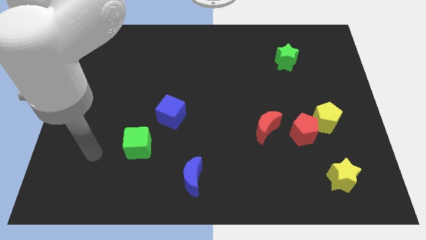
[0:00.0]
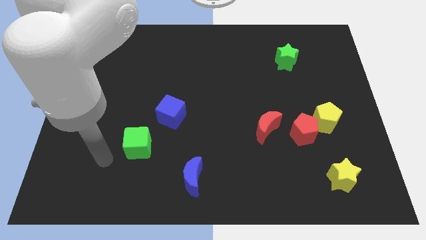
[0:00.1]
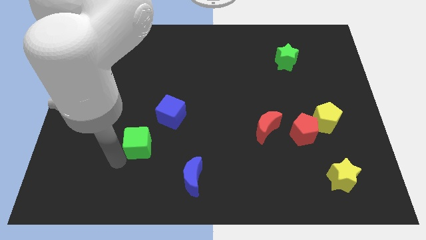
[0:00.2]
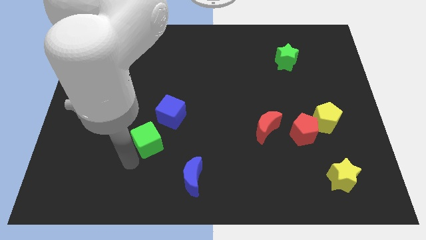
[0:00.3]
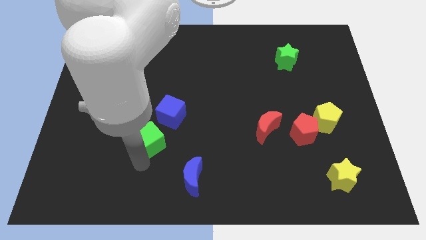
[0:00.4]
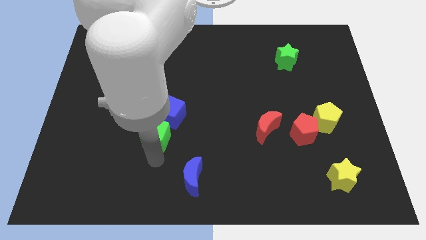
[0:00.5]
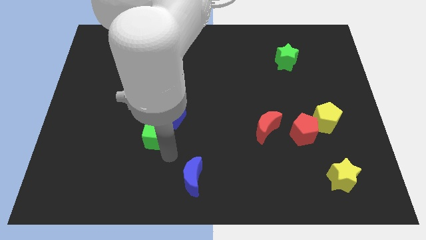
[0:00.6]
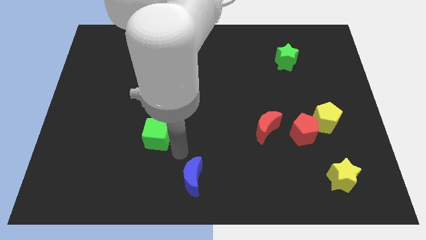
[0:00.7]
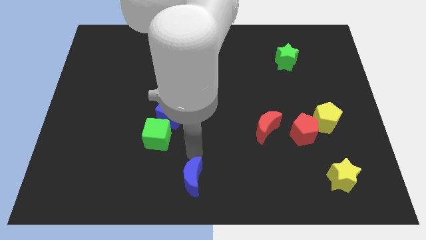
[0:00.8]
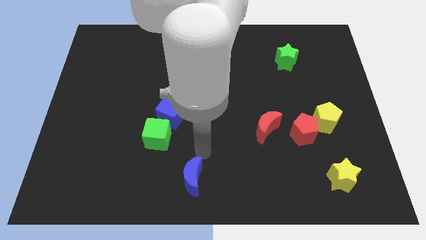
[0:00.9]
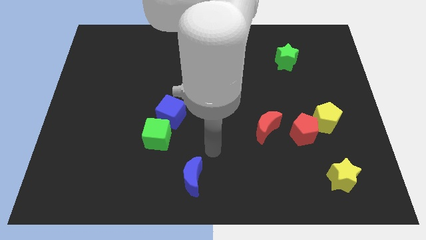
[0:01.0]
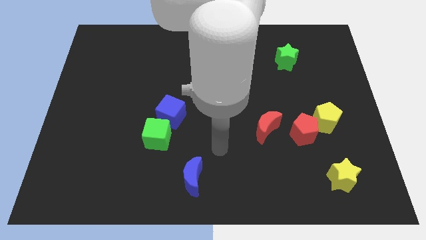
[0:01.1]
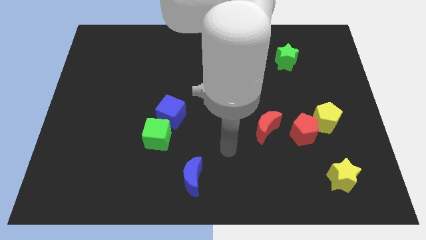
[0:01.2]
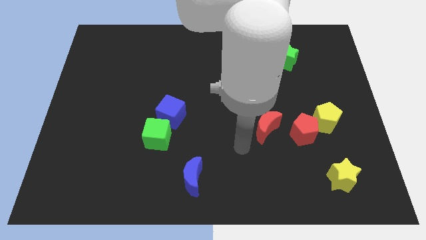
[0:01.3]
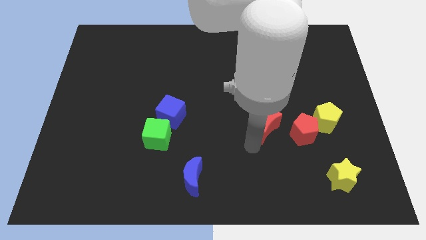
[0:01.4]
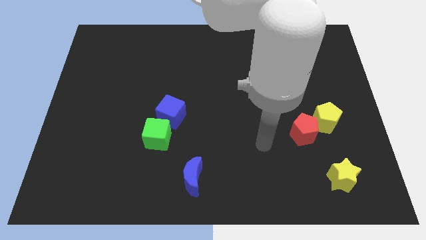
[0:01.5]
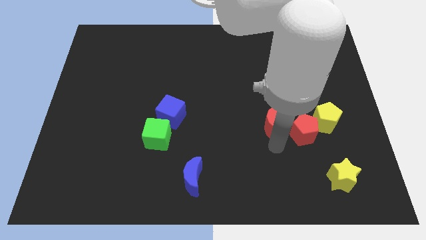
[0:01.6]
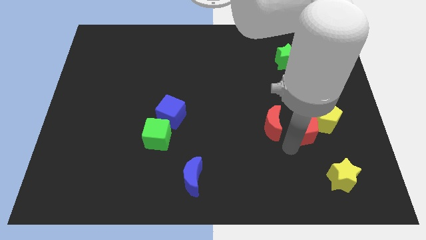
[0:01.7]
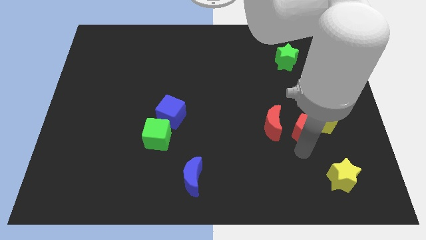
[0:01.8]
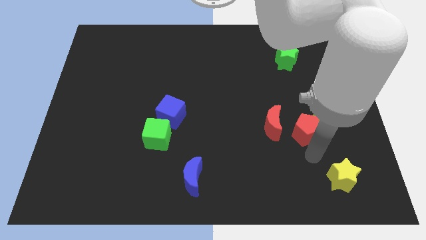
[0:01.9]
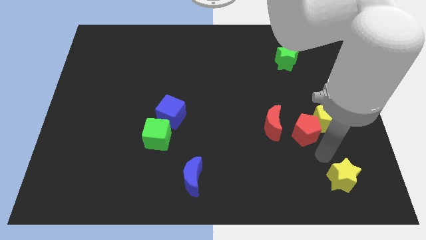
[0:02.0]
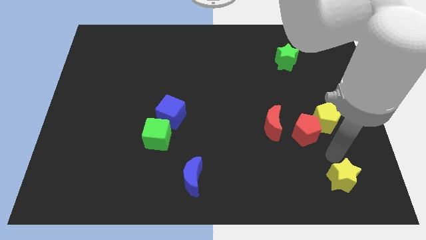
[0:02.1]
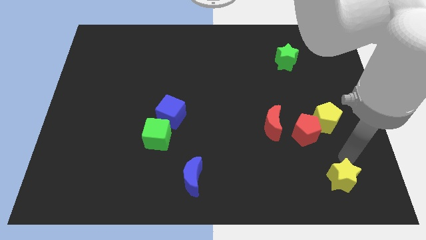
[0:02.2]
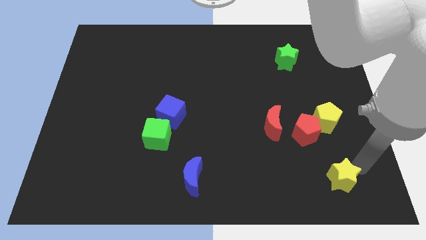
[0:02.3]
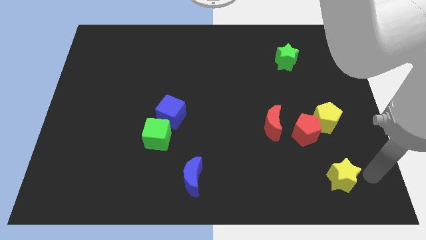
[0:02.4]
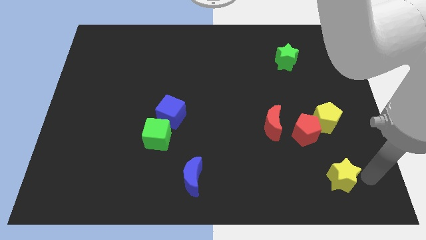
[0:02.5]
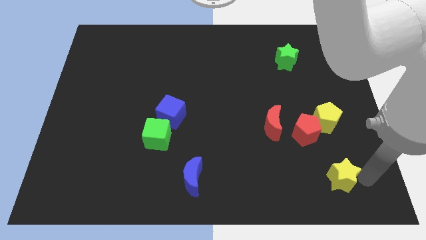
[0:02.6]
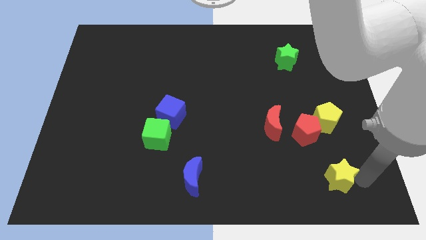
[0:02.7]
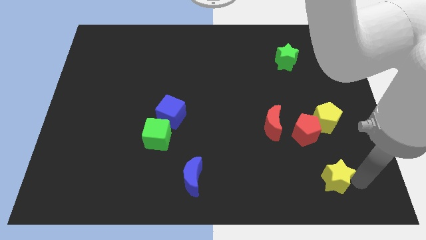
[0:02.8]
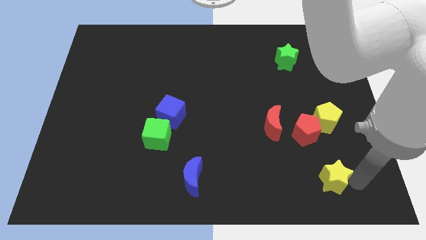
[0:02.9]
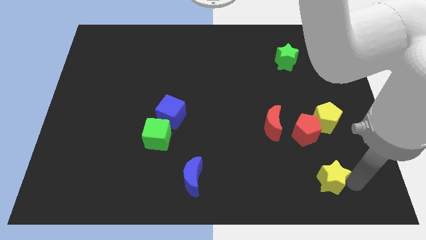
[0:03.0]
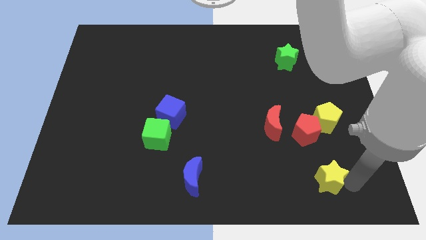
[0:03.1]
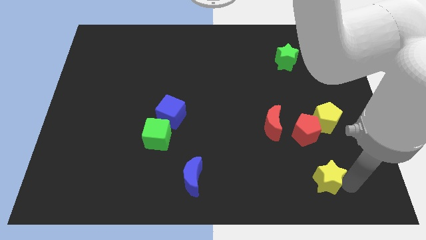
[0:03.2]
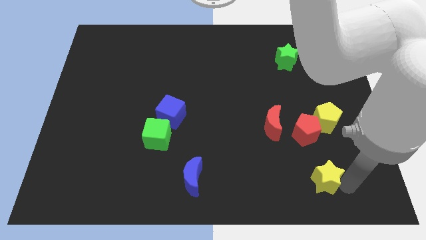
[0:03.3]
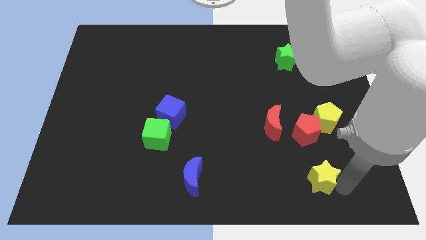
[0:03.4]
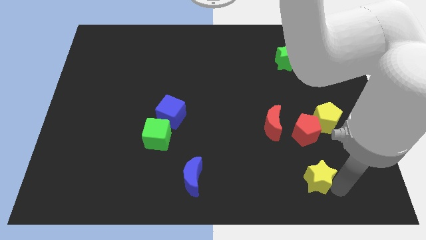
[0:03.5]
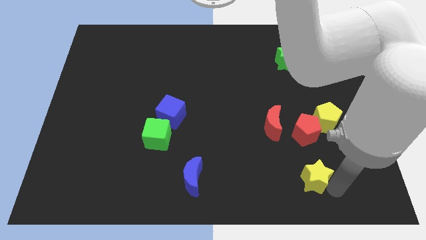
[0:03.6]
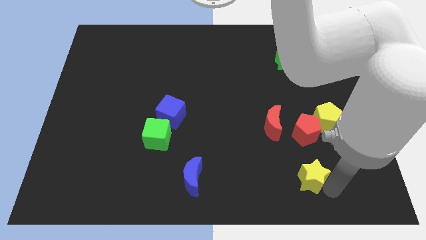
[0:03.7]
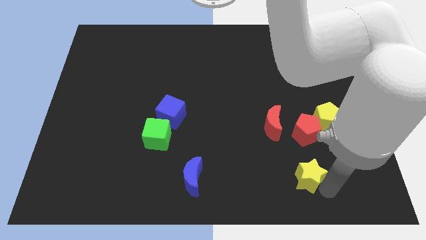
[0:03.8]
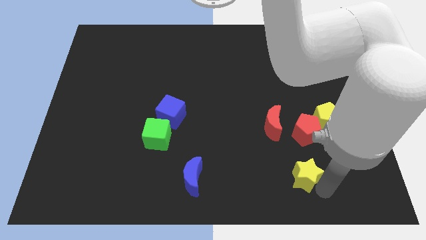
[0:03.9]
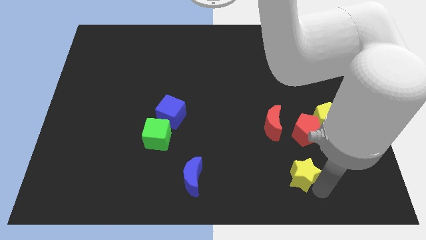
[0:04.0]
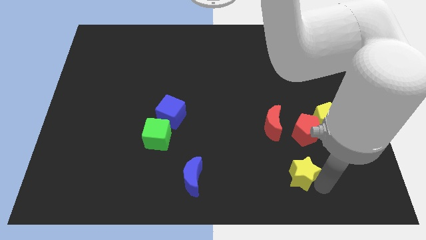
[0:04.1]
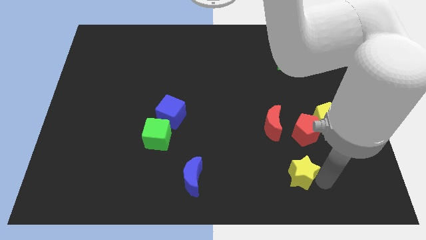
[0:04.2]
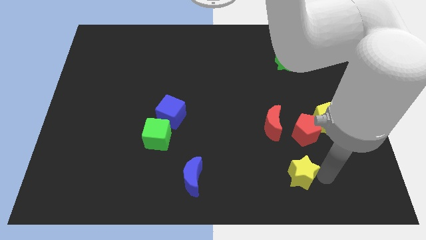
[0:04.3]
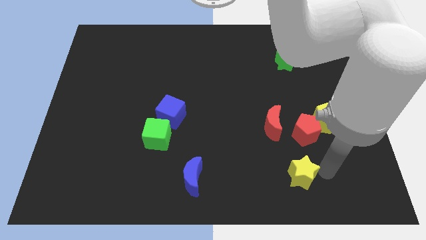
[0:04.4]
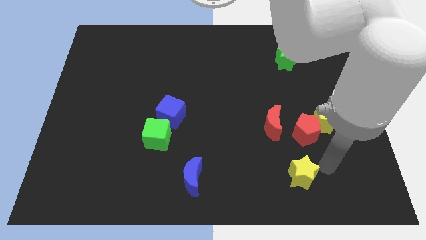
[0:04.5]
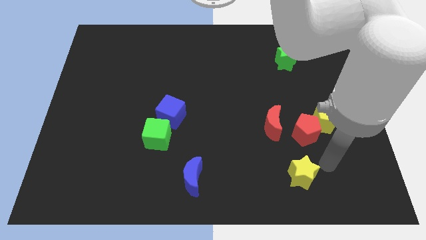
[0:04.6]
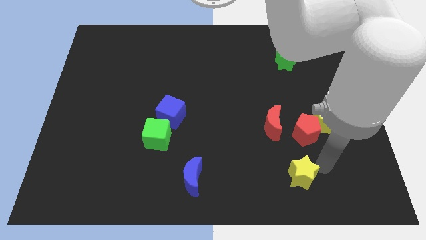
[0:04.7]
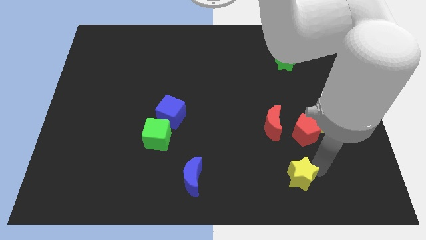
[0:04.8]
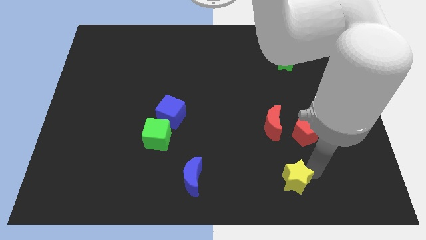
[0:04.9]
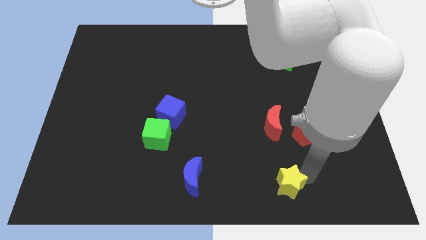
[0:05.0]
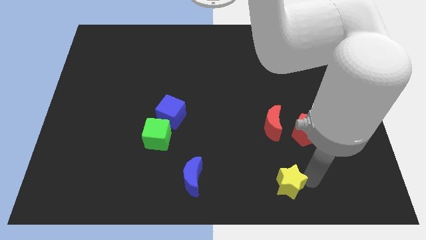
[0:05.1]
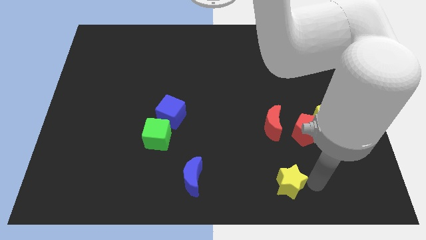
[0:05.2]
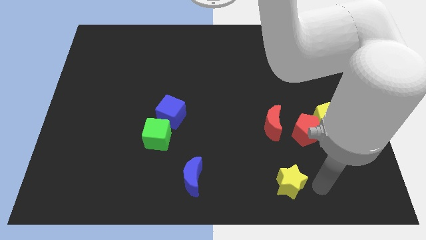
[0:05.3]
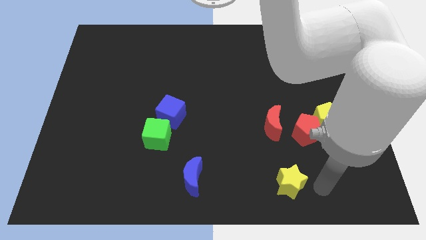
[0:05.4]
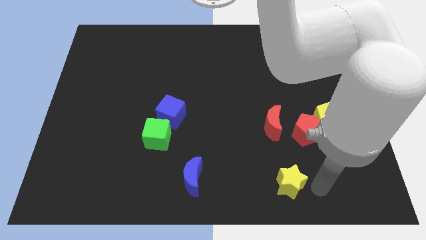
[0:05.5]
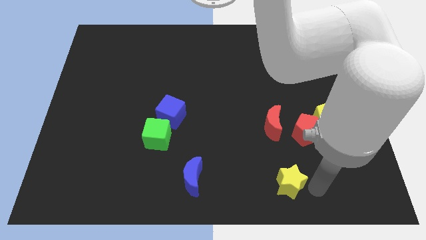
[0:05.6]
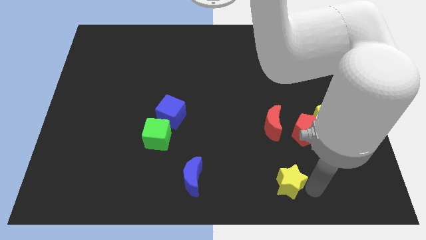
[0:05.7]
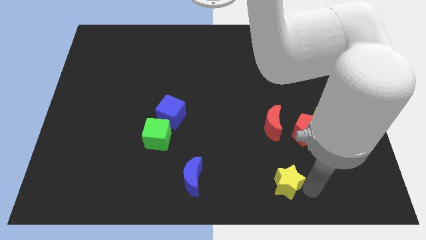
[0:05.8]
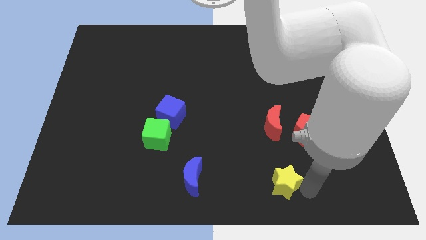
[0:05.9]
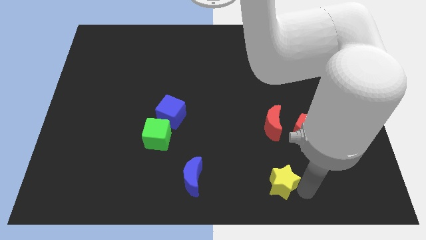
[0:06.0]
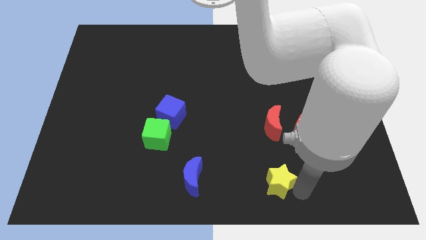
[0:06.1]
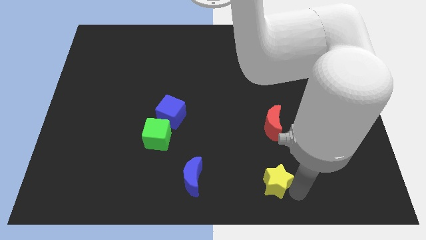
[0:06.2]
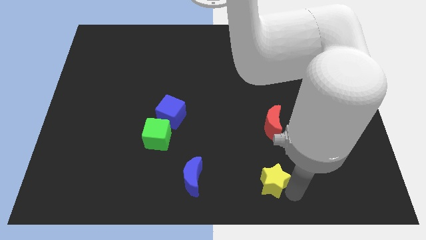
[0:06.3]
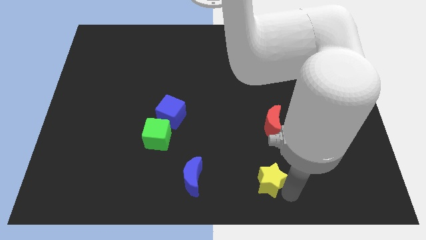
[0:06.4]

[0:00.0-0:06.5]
move the yellow star right of the blue moon

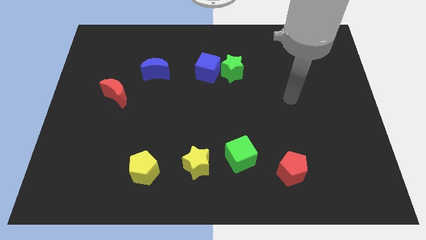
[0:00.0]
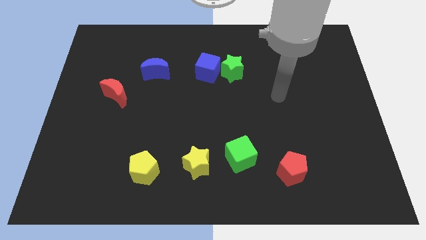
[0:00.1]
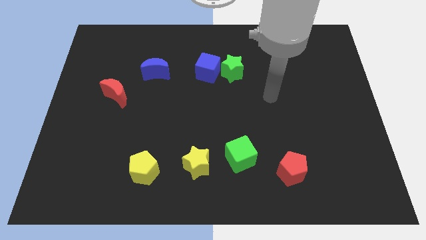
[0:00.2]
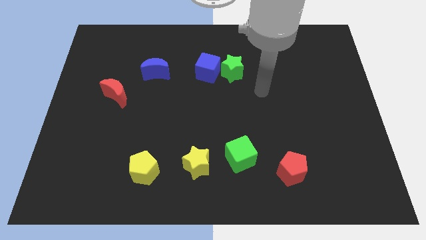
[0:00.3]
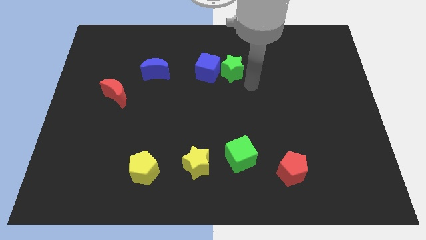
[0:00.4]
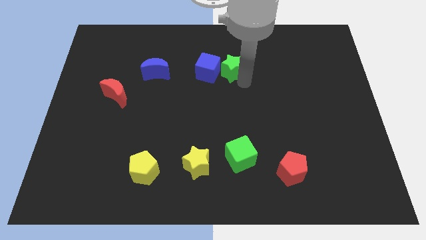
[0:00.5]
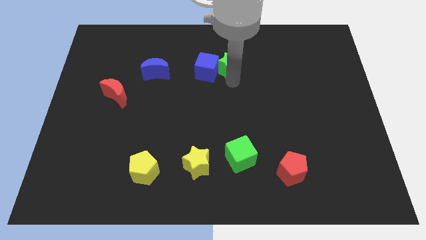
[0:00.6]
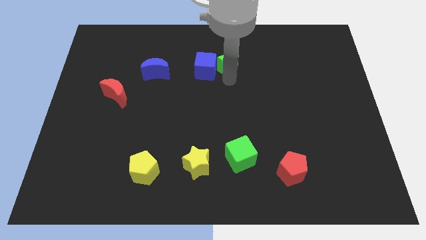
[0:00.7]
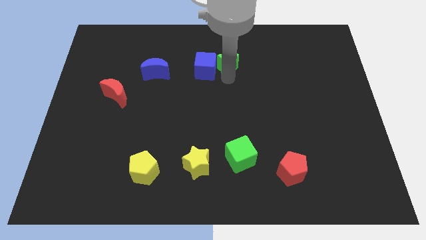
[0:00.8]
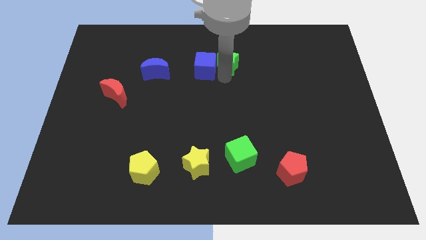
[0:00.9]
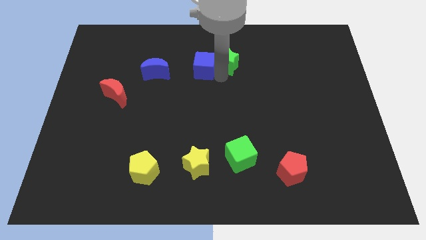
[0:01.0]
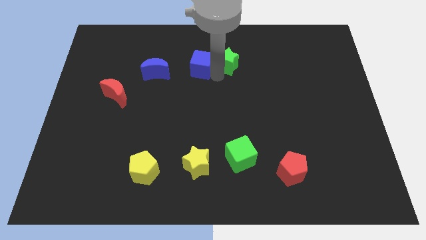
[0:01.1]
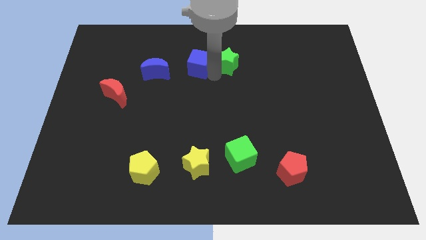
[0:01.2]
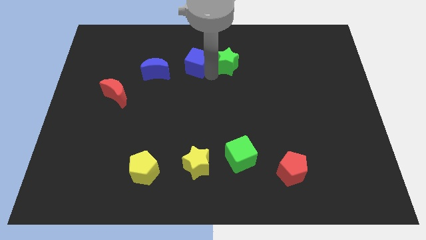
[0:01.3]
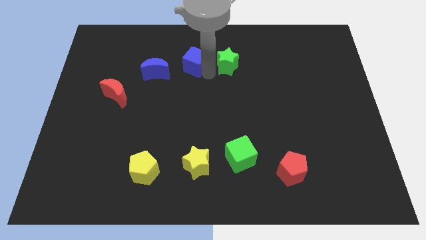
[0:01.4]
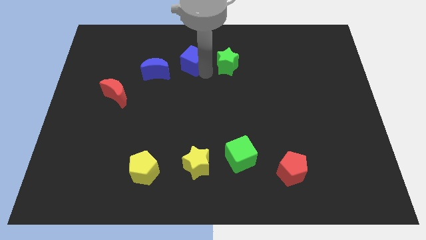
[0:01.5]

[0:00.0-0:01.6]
push the blue cube to the top right of the blue moon
